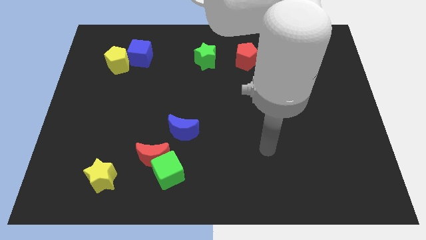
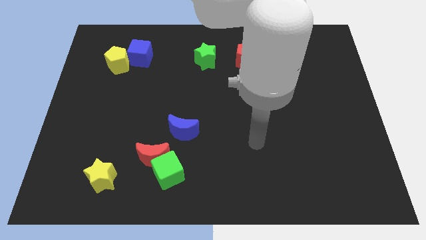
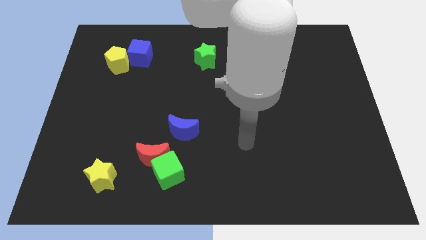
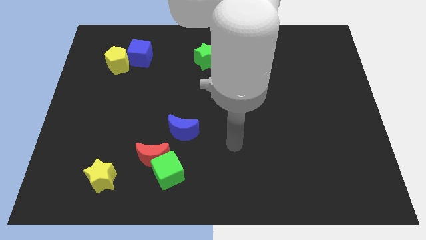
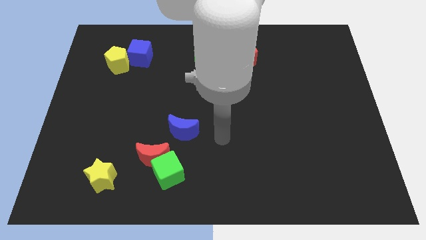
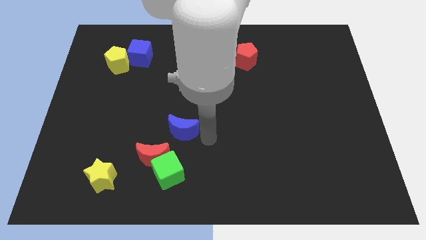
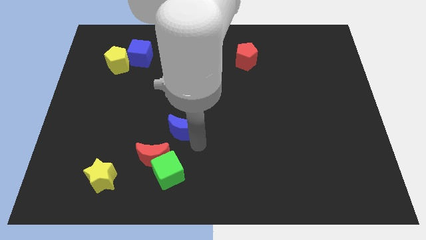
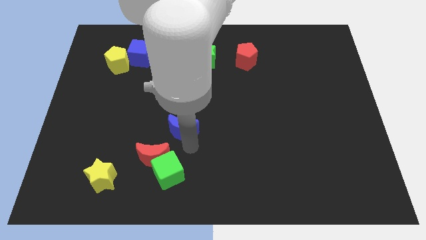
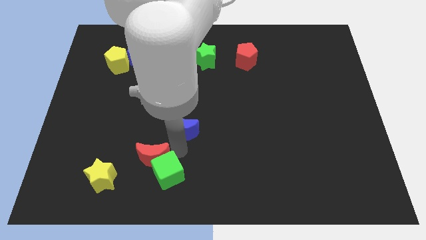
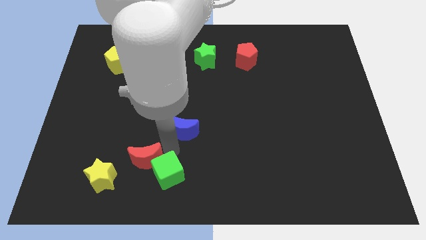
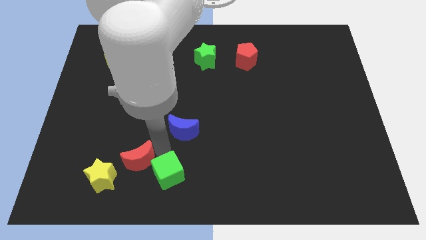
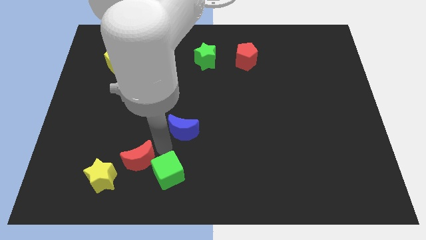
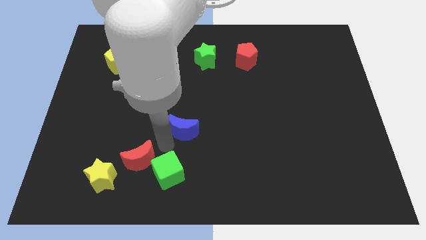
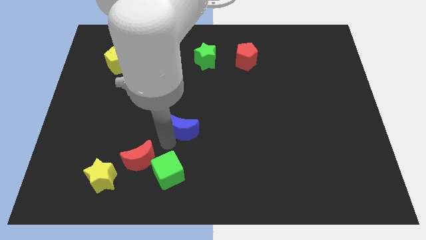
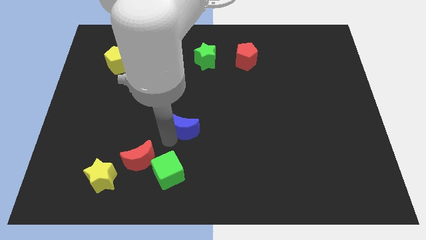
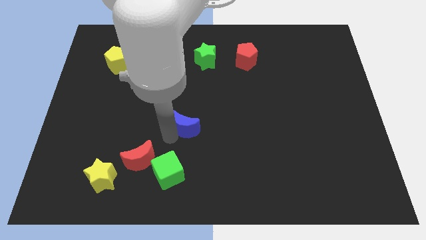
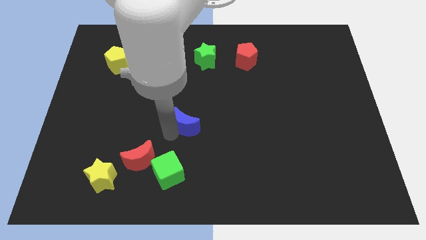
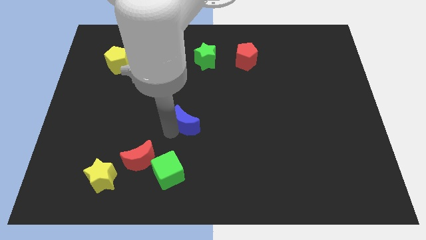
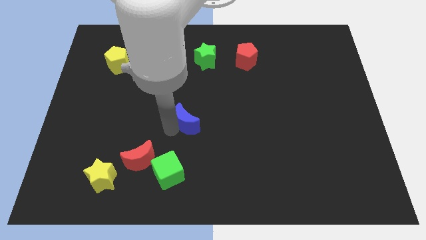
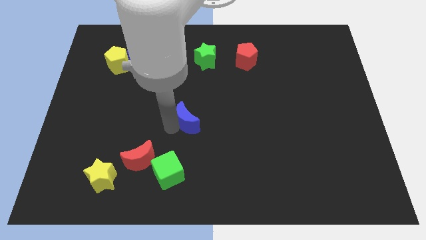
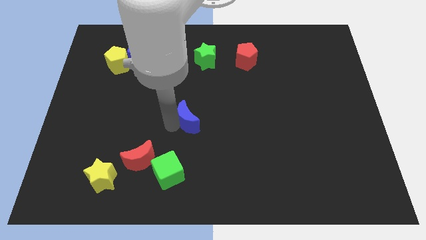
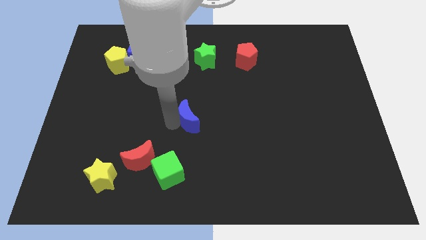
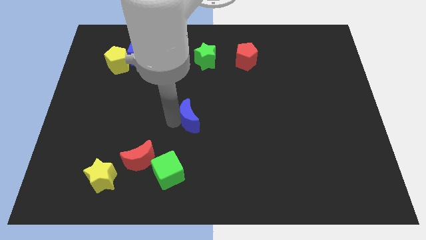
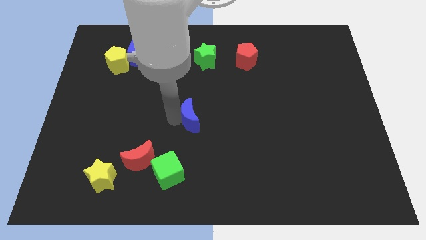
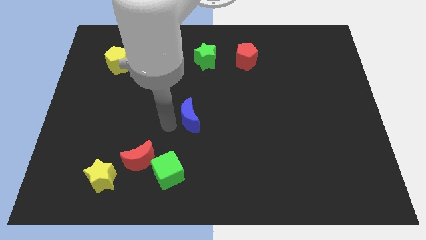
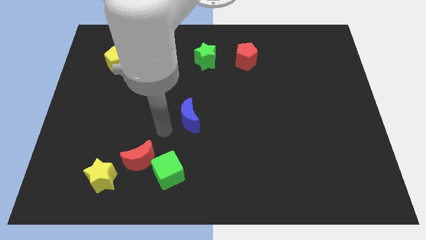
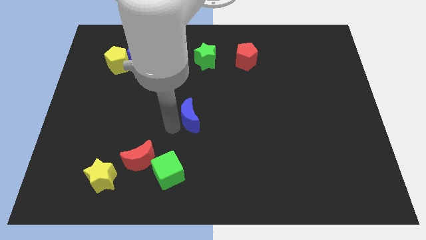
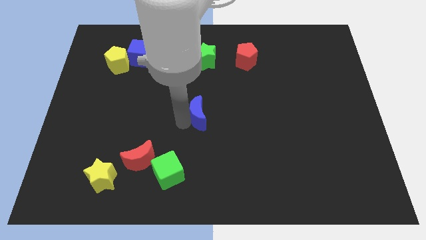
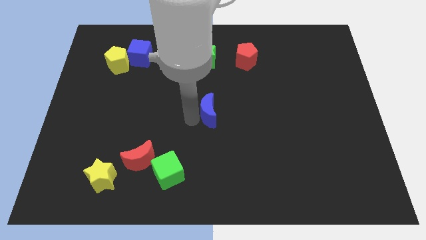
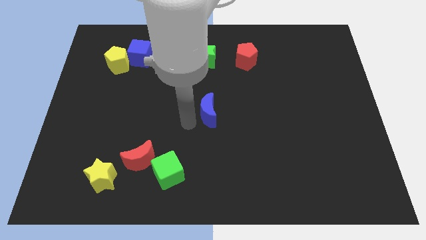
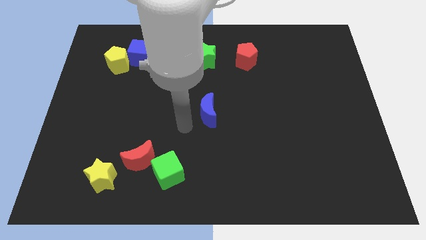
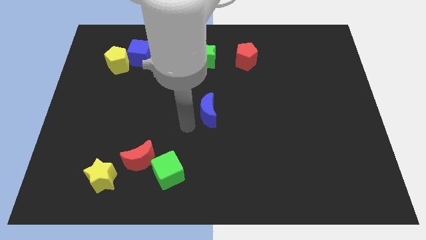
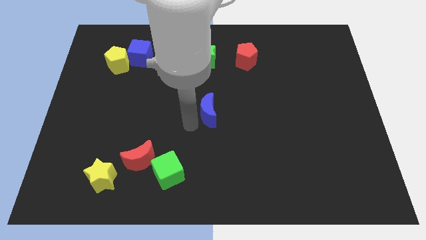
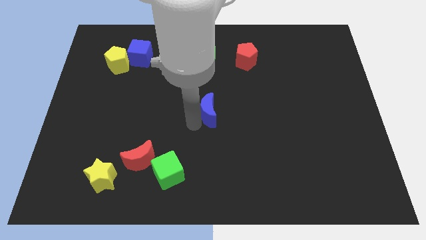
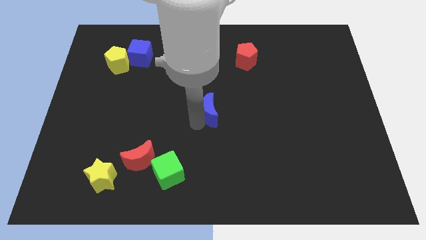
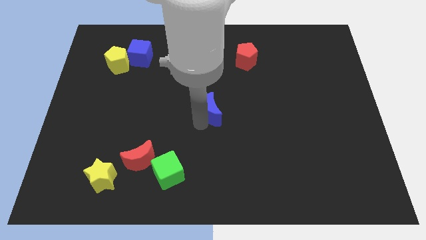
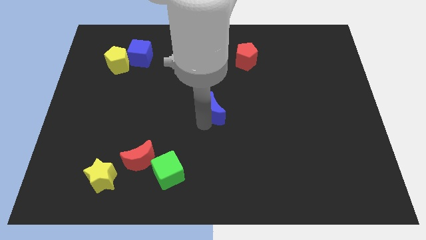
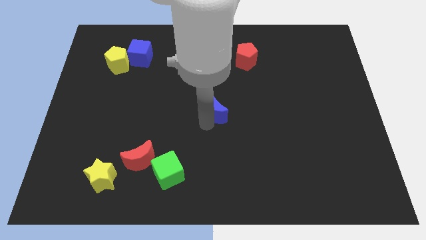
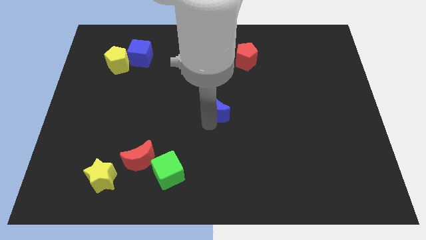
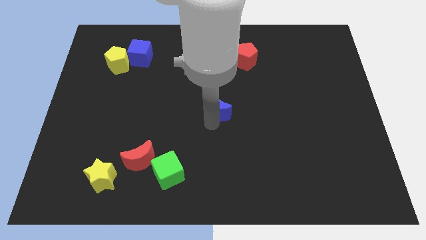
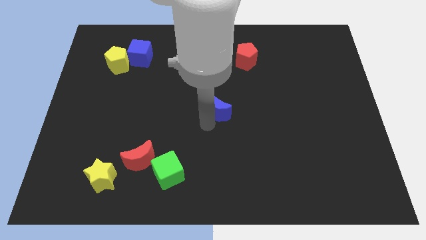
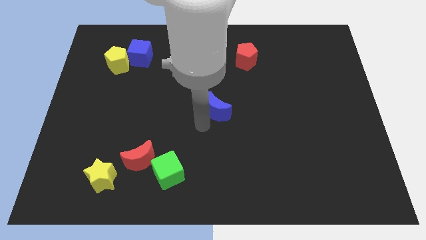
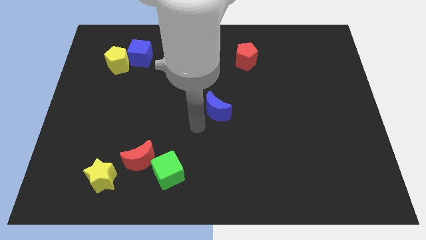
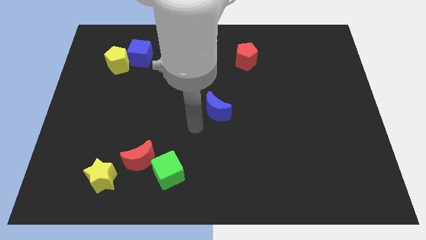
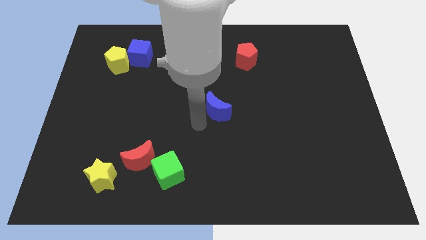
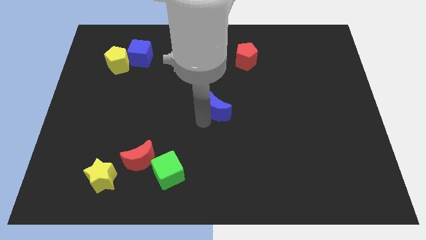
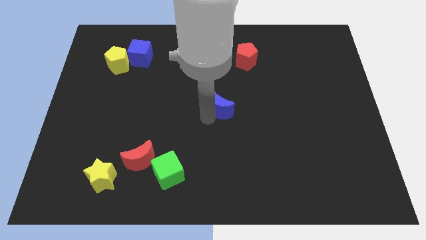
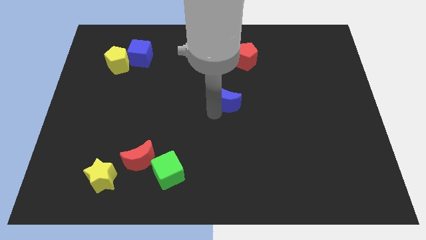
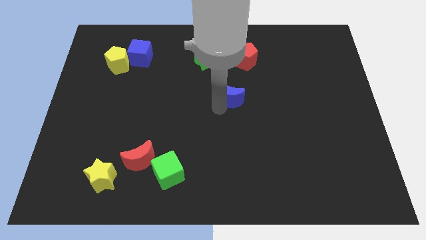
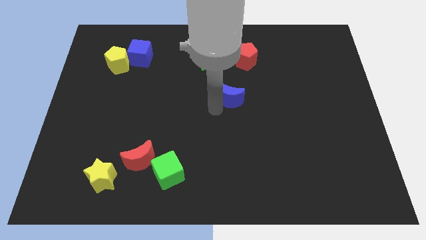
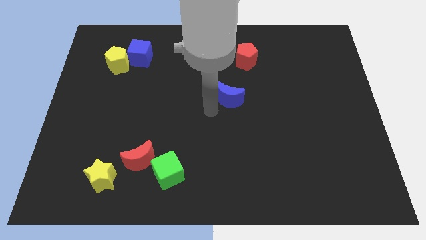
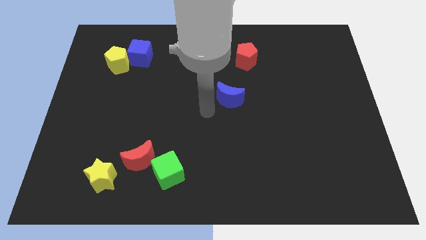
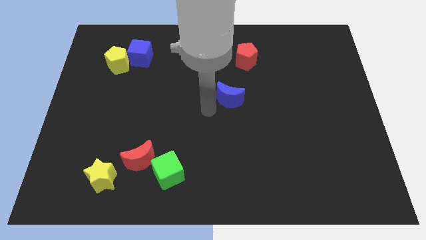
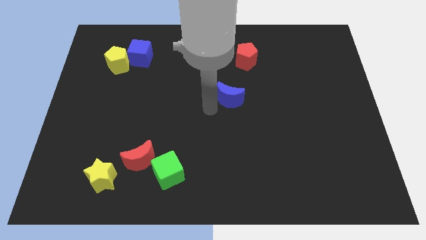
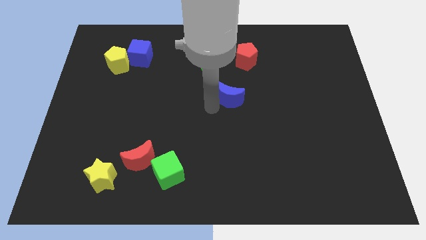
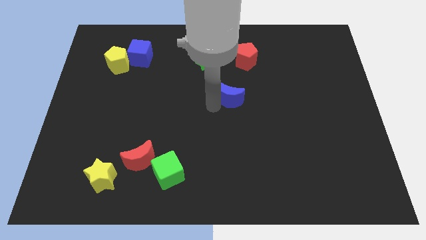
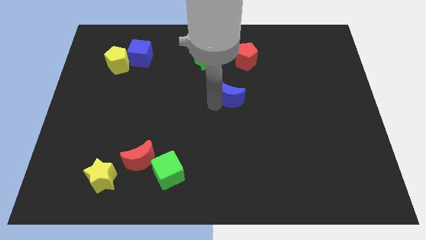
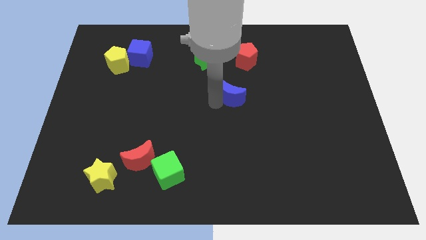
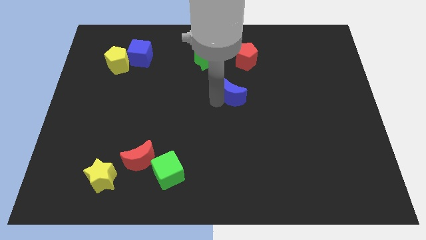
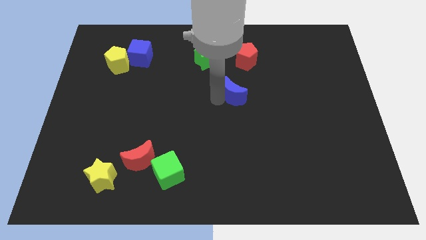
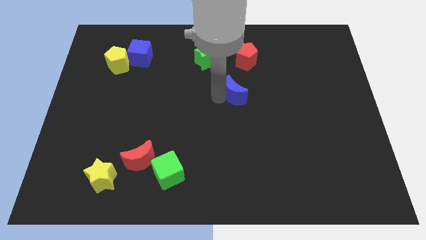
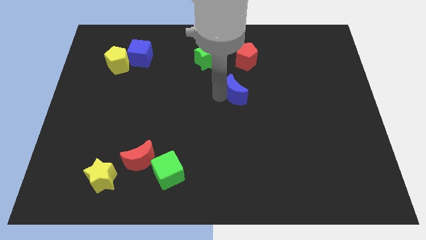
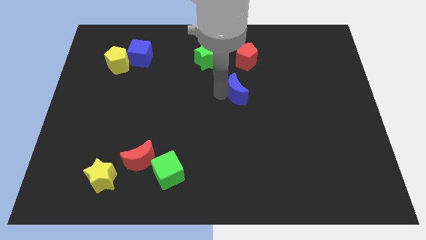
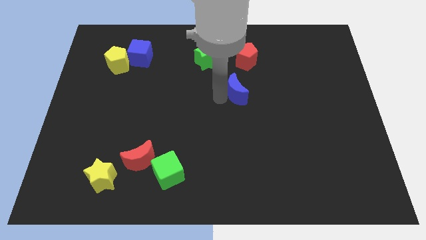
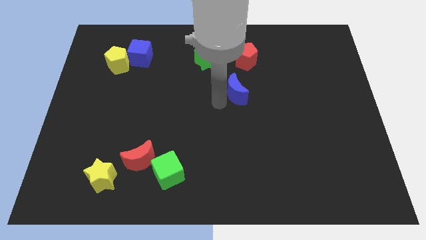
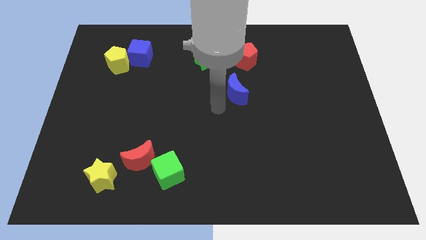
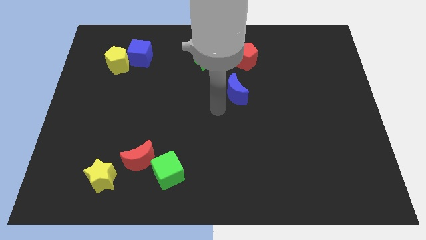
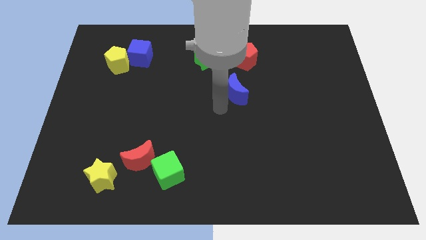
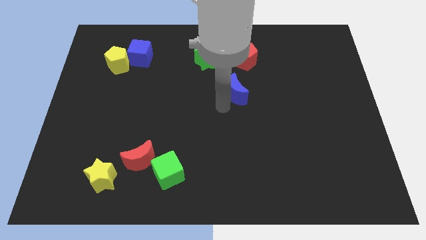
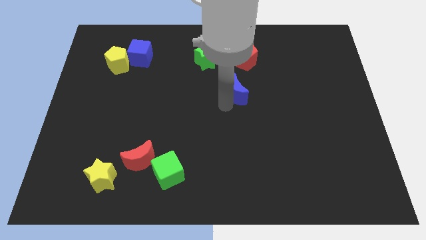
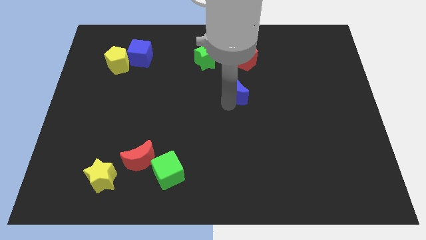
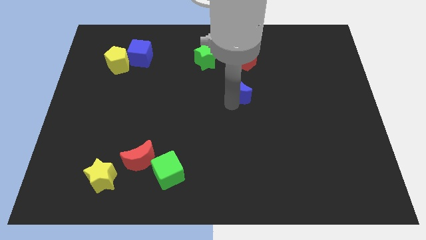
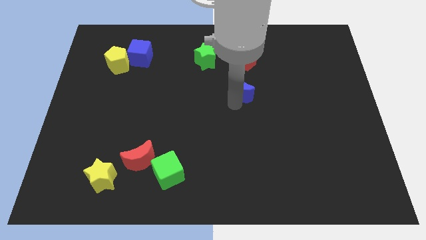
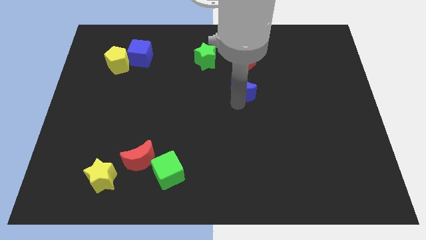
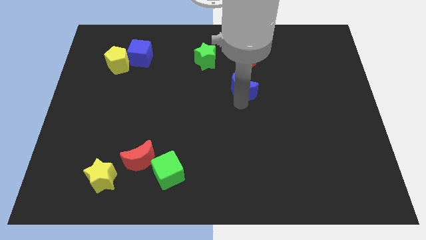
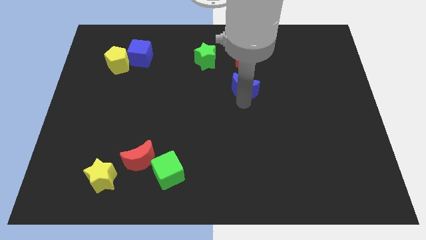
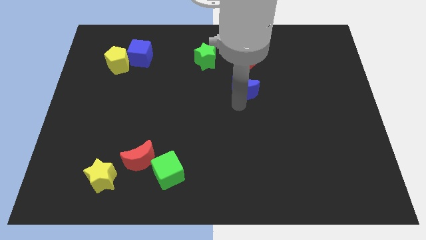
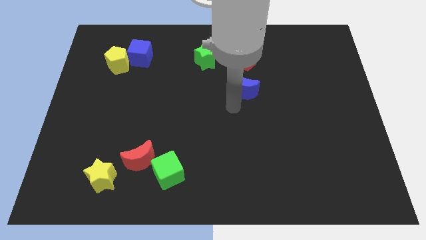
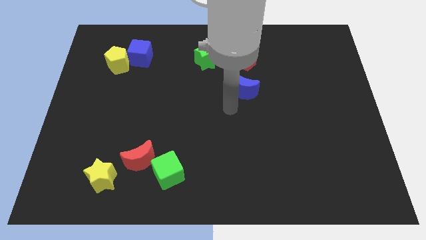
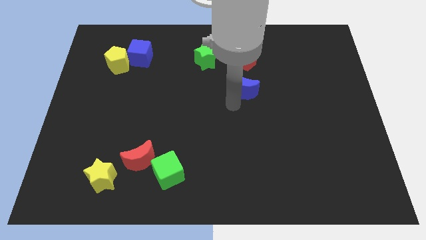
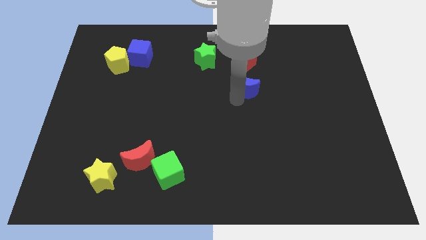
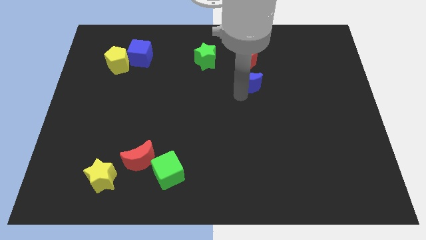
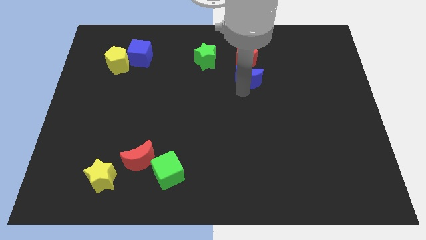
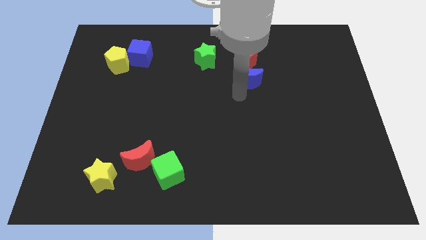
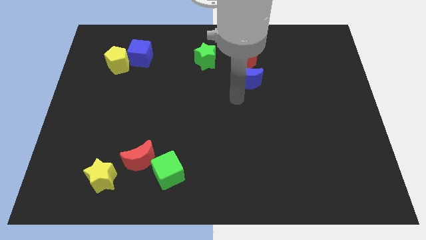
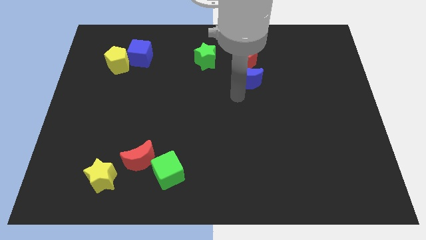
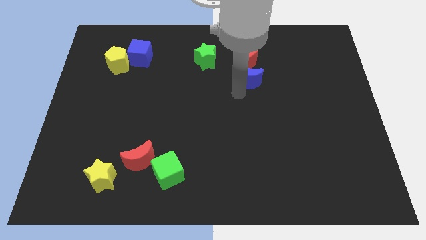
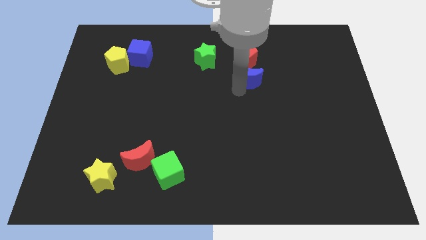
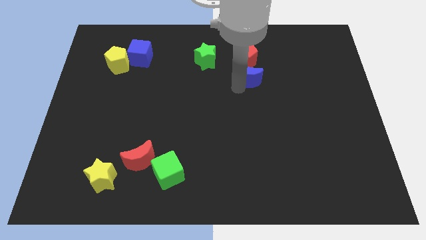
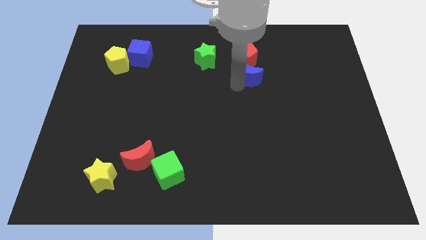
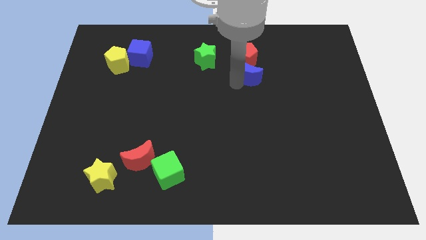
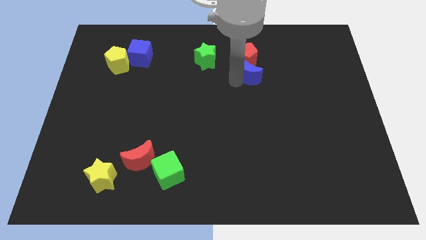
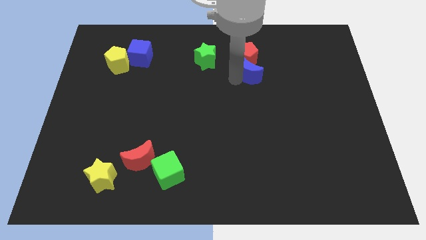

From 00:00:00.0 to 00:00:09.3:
push the blue moon right of the green star
